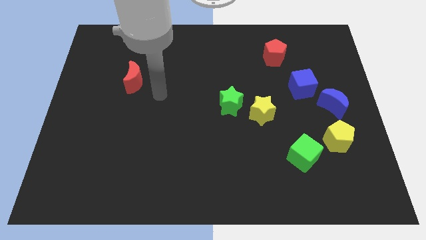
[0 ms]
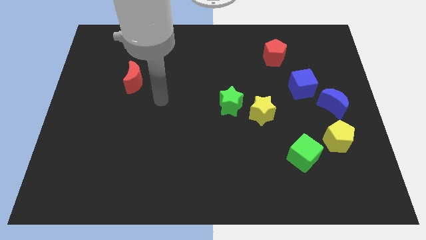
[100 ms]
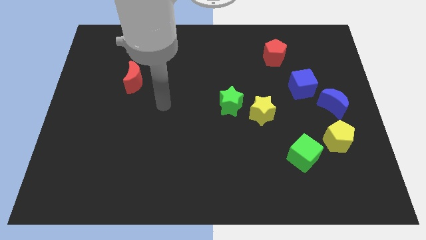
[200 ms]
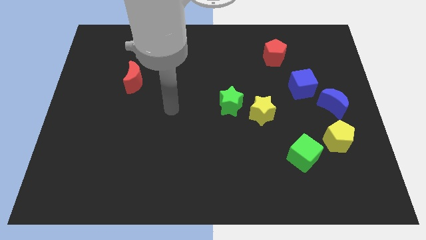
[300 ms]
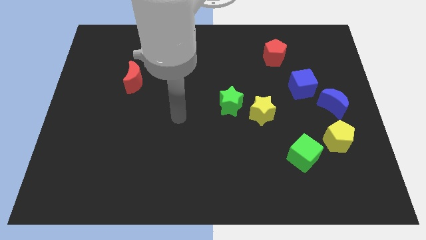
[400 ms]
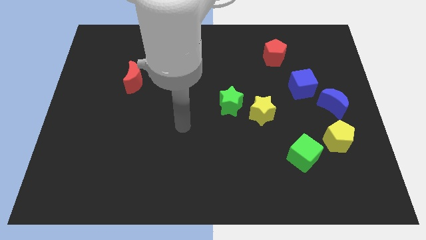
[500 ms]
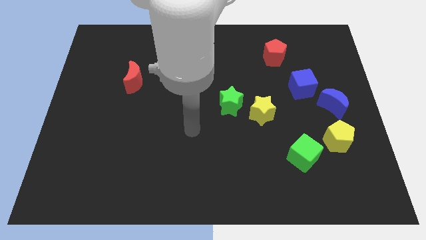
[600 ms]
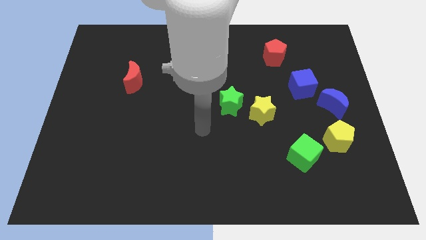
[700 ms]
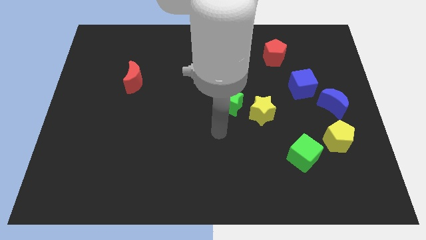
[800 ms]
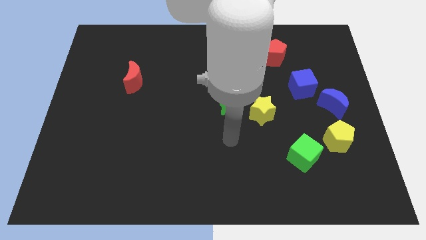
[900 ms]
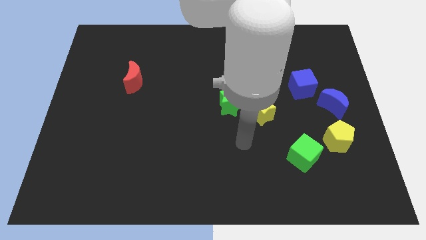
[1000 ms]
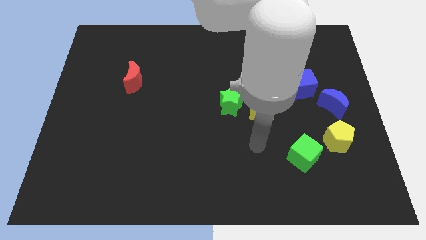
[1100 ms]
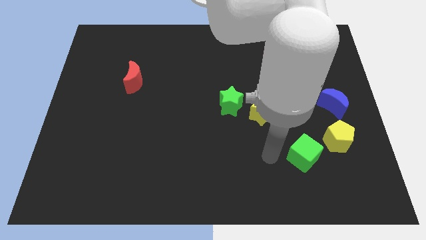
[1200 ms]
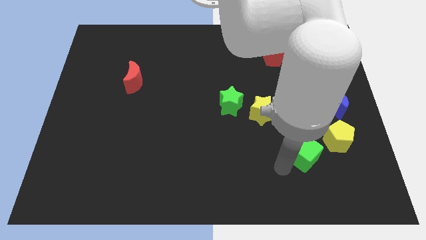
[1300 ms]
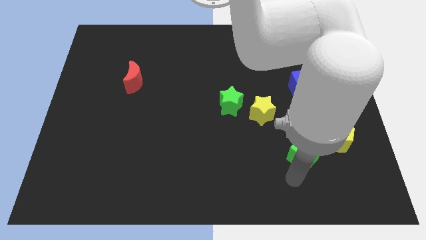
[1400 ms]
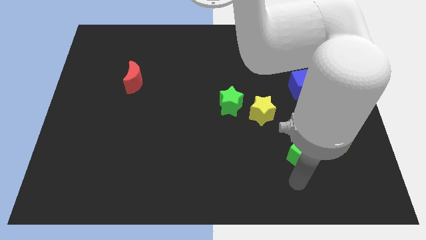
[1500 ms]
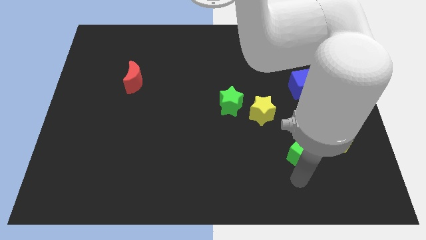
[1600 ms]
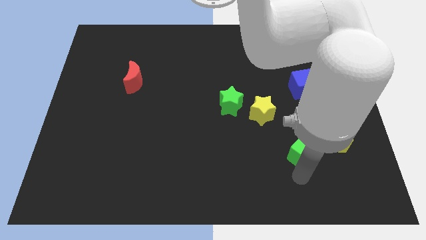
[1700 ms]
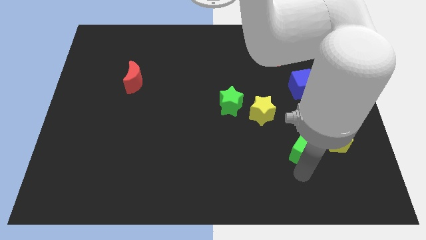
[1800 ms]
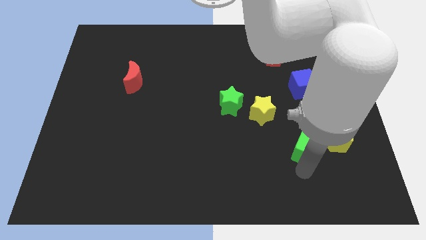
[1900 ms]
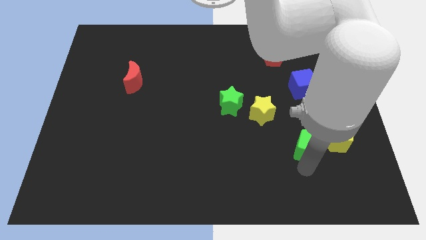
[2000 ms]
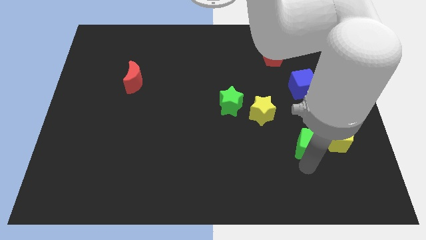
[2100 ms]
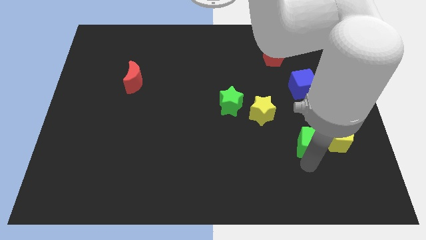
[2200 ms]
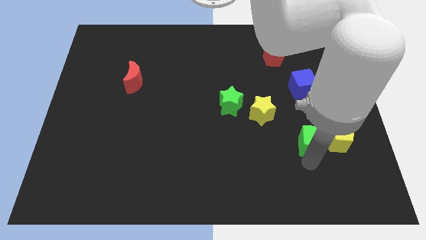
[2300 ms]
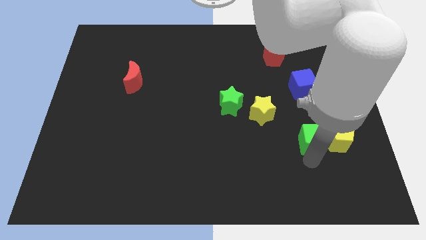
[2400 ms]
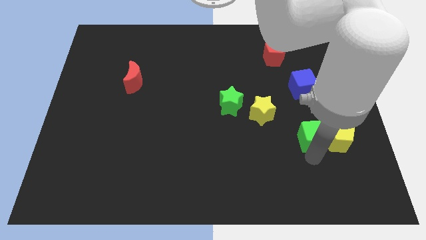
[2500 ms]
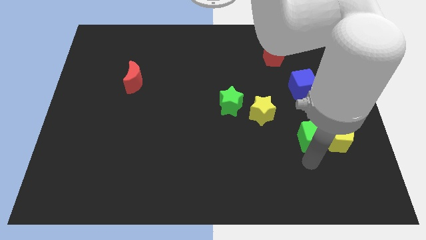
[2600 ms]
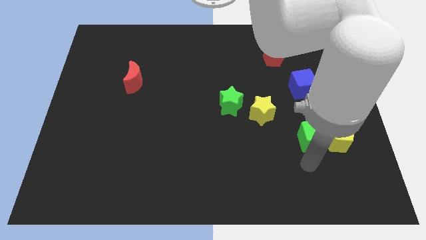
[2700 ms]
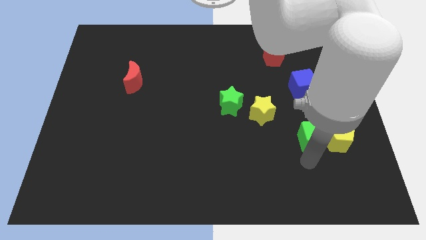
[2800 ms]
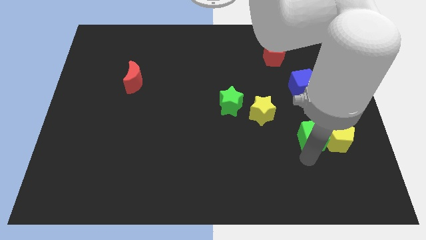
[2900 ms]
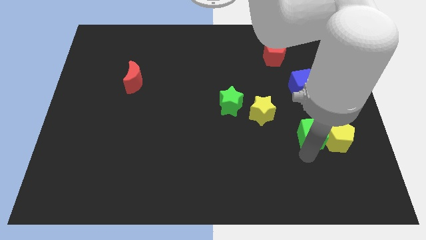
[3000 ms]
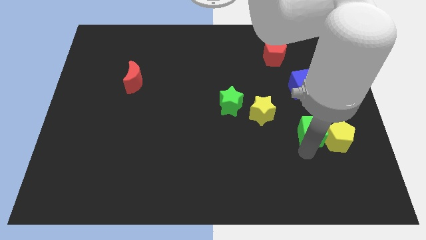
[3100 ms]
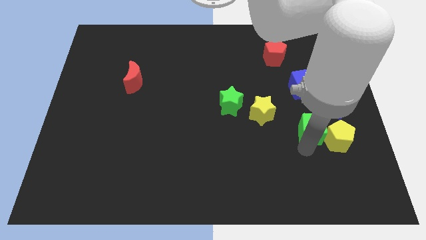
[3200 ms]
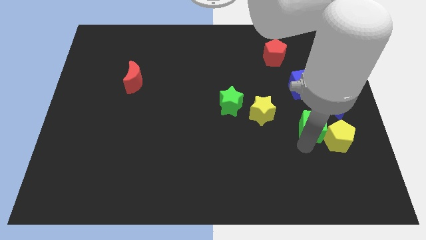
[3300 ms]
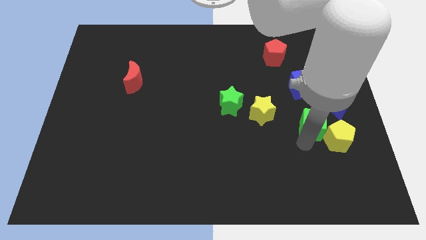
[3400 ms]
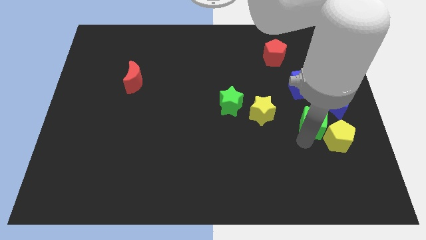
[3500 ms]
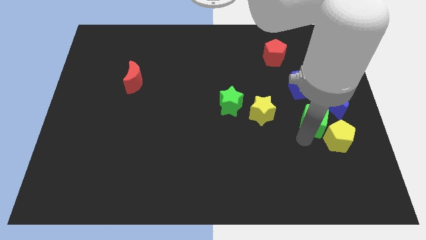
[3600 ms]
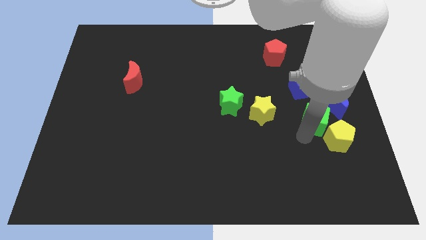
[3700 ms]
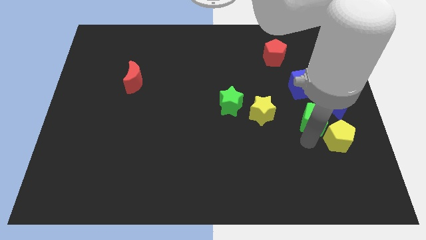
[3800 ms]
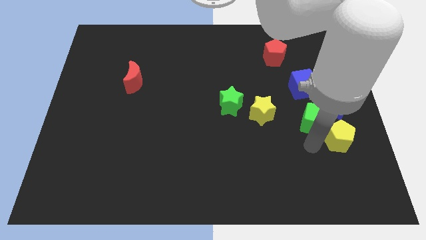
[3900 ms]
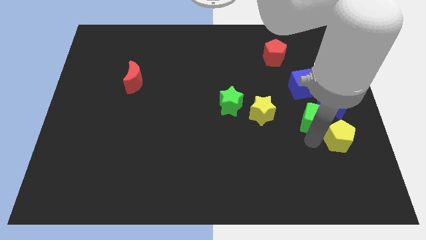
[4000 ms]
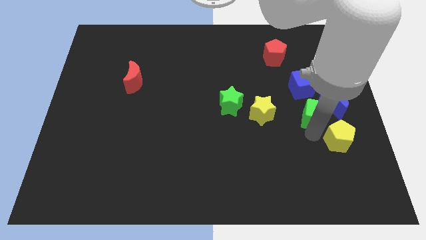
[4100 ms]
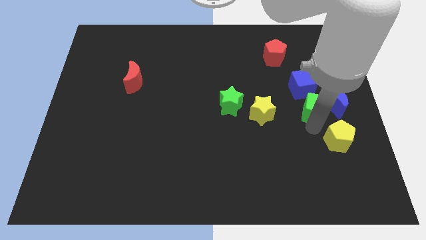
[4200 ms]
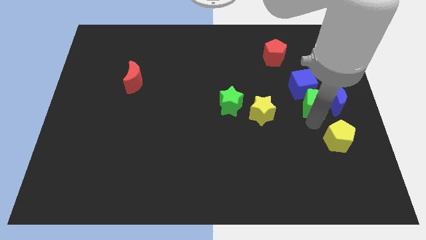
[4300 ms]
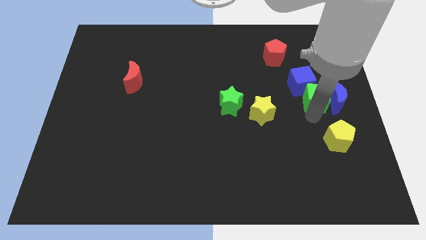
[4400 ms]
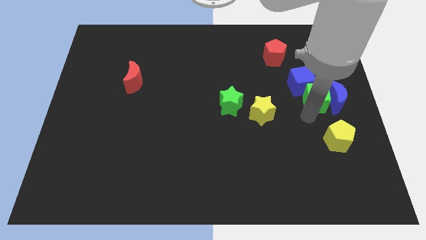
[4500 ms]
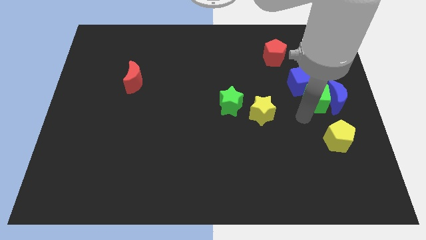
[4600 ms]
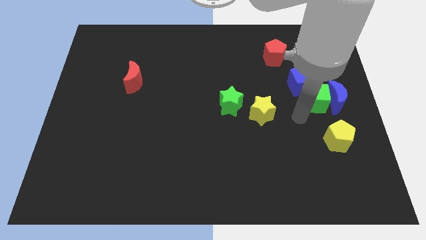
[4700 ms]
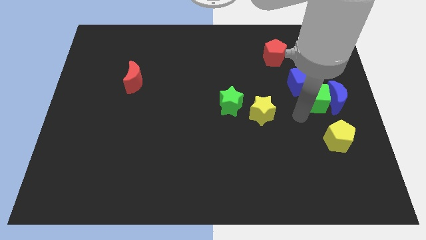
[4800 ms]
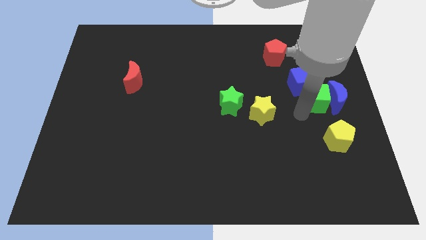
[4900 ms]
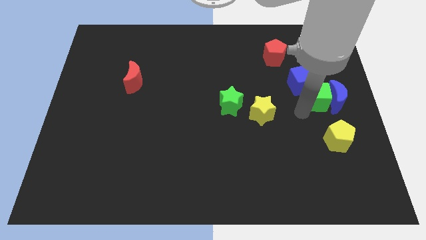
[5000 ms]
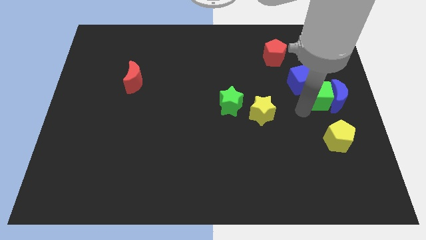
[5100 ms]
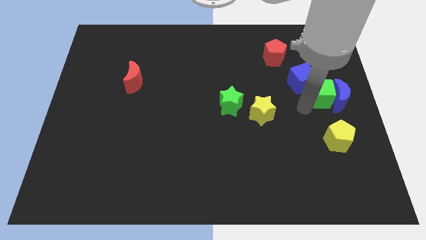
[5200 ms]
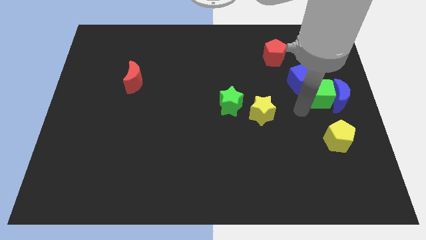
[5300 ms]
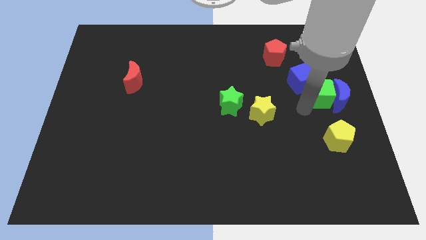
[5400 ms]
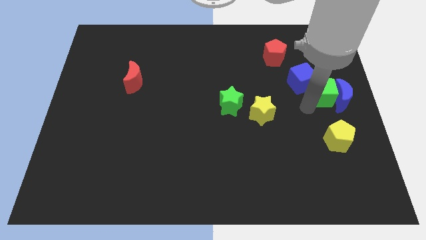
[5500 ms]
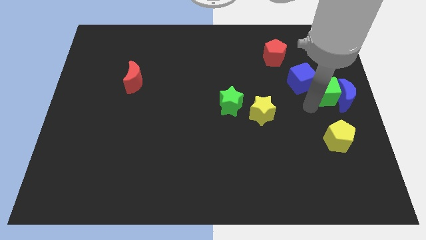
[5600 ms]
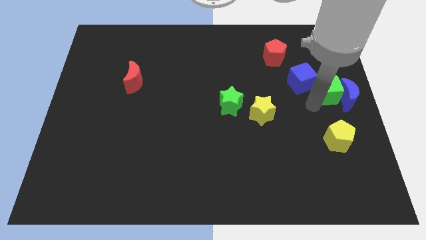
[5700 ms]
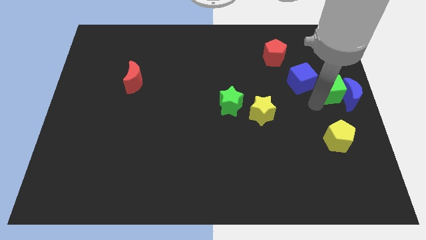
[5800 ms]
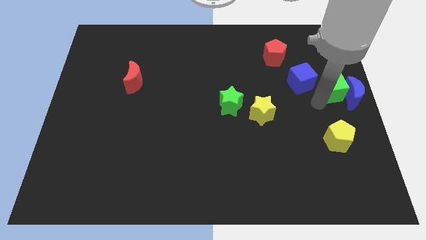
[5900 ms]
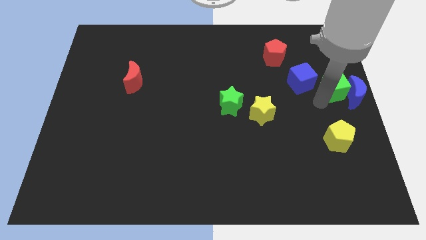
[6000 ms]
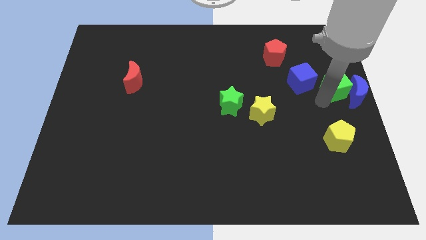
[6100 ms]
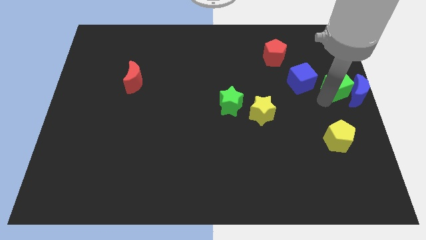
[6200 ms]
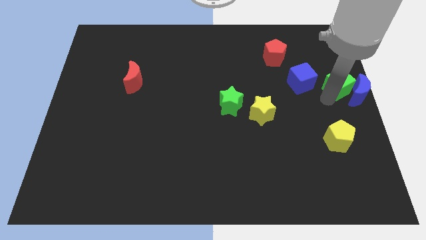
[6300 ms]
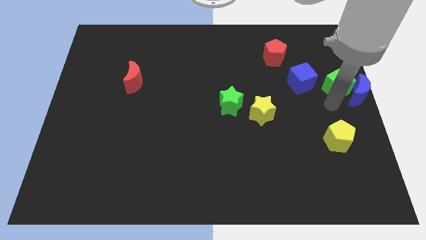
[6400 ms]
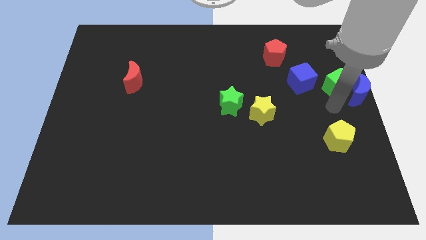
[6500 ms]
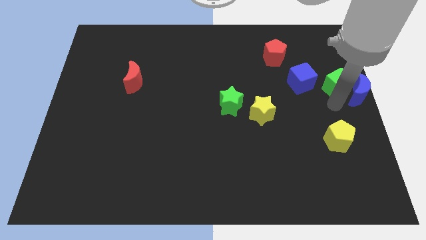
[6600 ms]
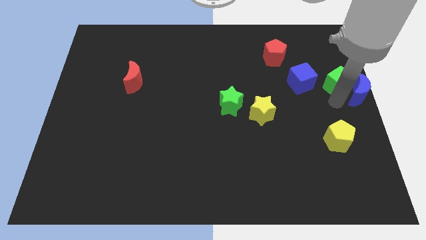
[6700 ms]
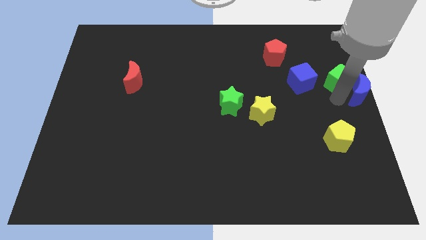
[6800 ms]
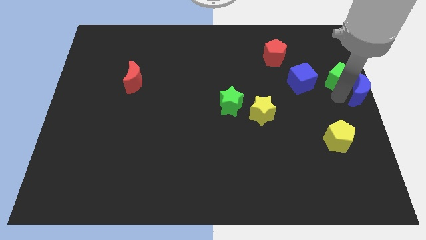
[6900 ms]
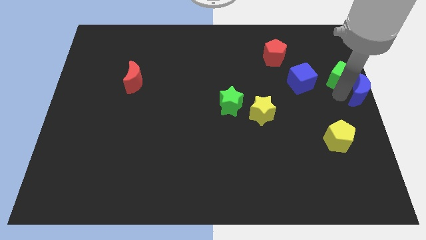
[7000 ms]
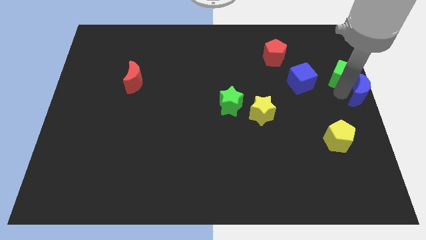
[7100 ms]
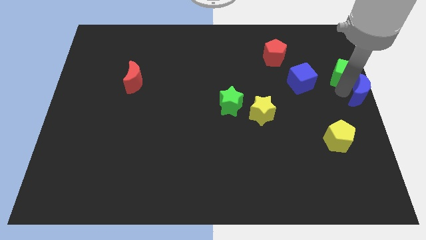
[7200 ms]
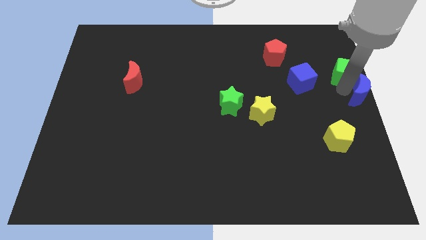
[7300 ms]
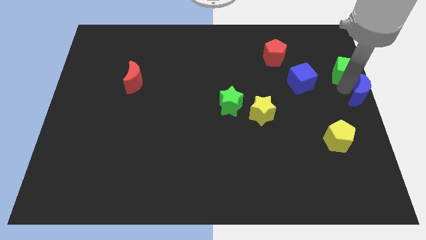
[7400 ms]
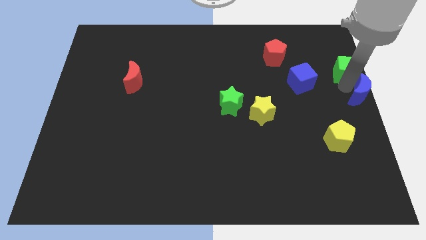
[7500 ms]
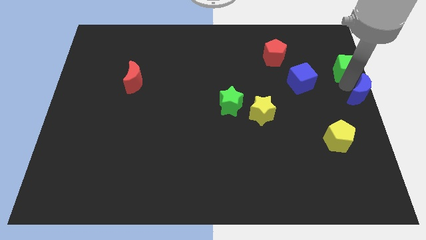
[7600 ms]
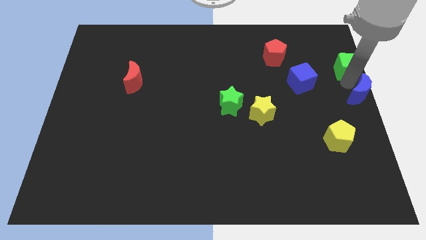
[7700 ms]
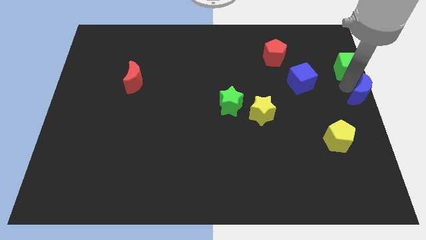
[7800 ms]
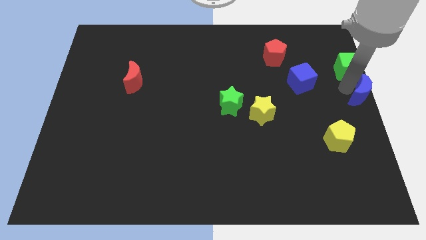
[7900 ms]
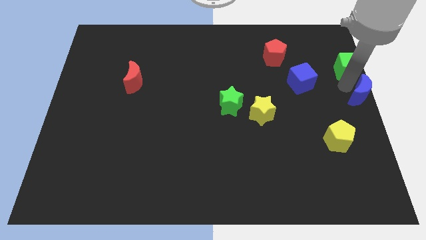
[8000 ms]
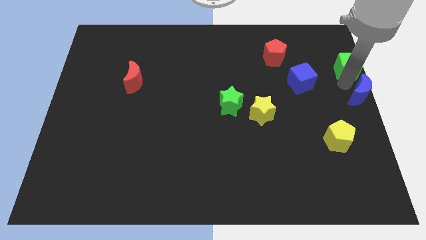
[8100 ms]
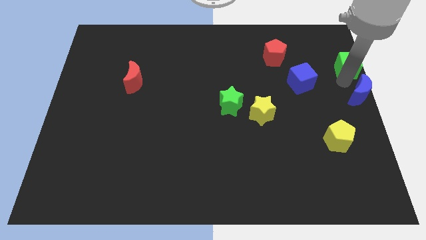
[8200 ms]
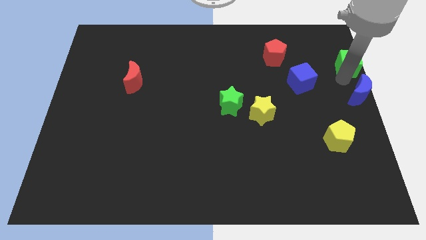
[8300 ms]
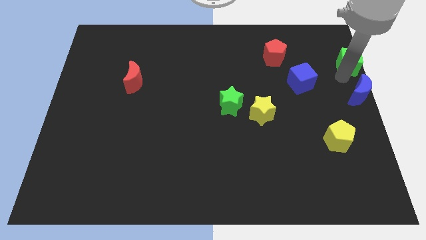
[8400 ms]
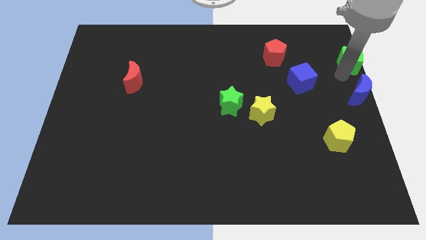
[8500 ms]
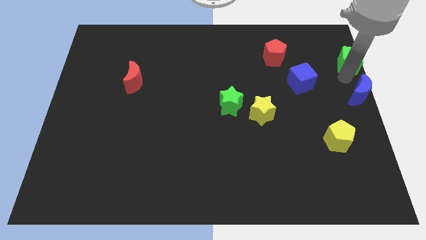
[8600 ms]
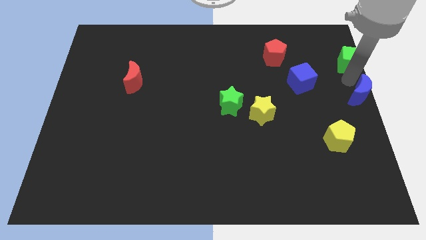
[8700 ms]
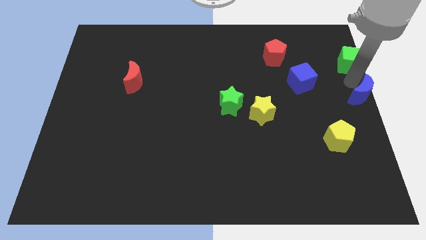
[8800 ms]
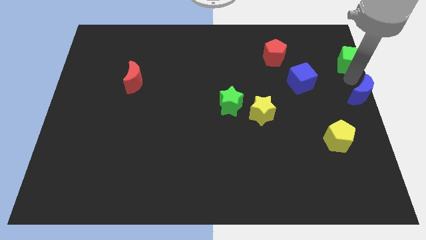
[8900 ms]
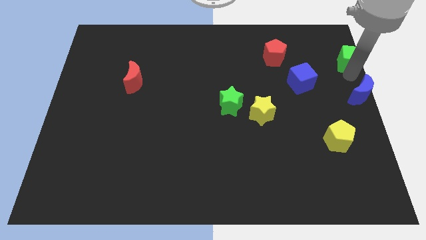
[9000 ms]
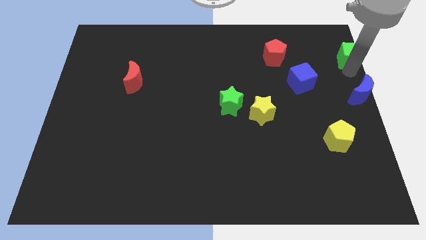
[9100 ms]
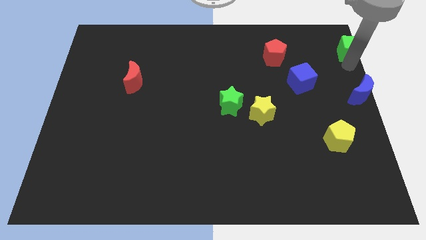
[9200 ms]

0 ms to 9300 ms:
move the green cube to the upper right corner
